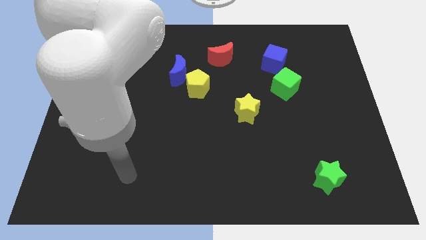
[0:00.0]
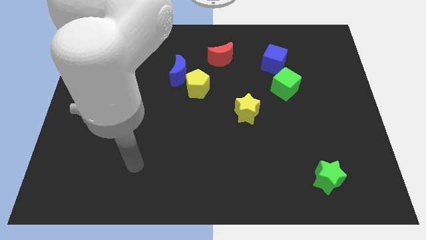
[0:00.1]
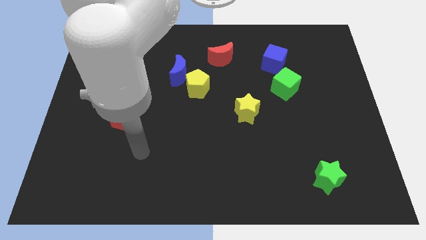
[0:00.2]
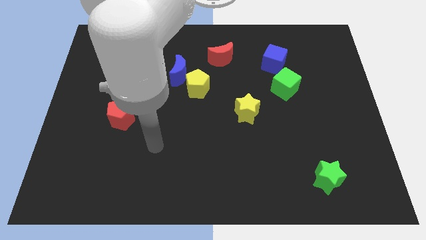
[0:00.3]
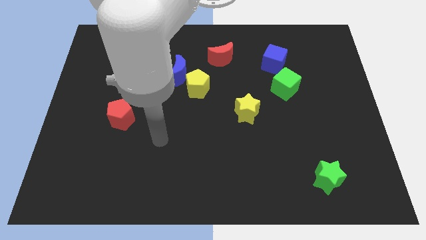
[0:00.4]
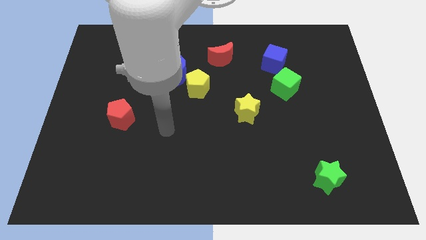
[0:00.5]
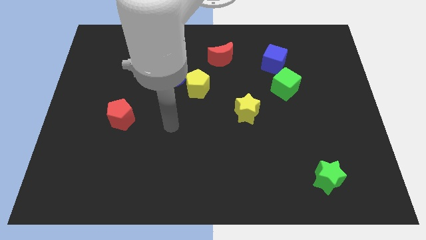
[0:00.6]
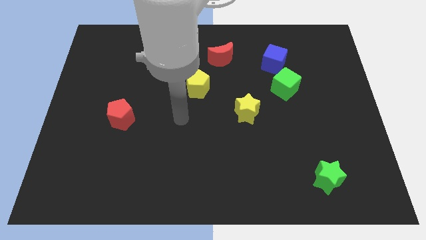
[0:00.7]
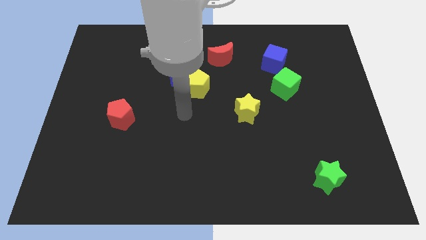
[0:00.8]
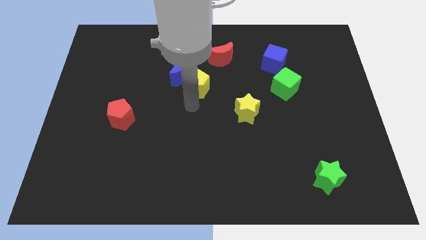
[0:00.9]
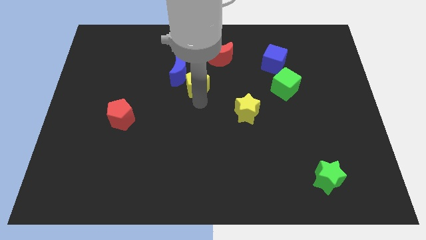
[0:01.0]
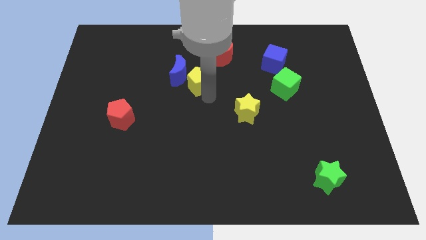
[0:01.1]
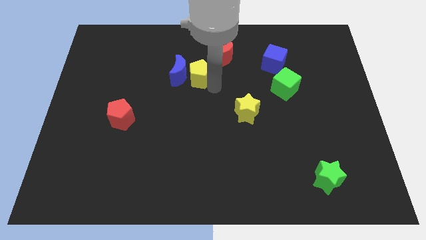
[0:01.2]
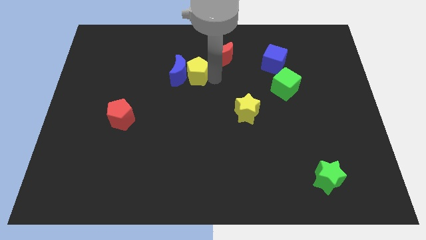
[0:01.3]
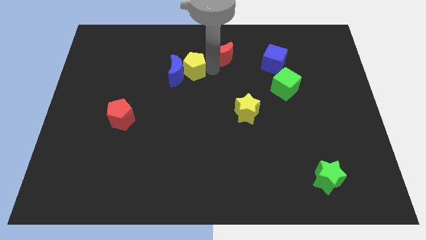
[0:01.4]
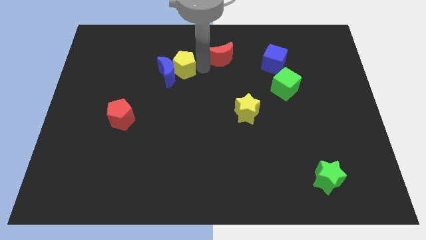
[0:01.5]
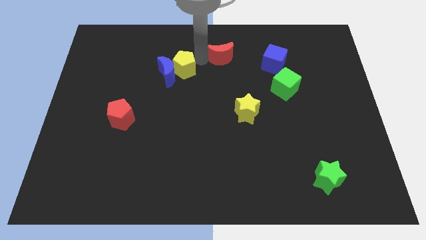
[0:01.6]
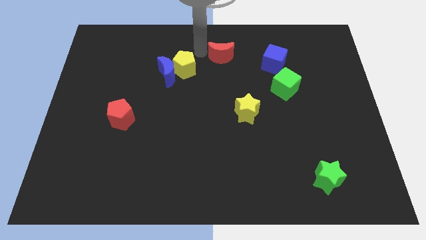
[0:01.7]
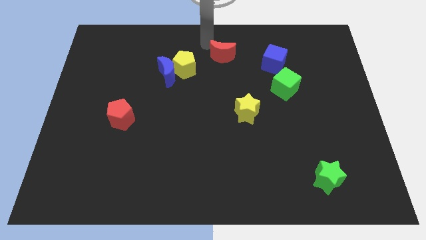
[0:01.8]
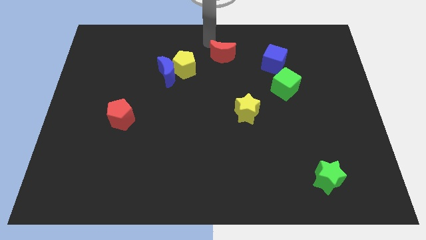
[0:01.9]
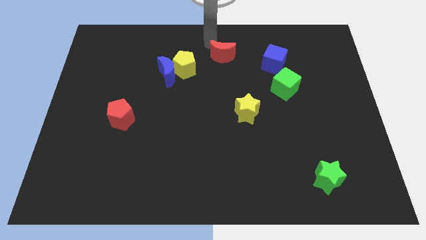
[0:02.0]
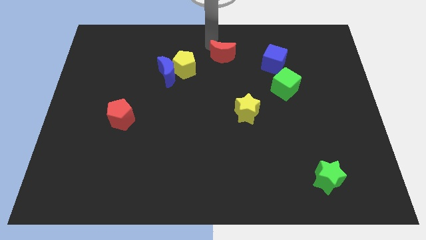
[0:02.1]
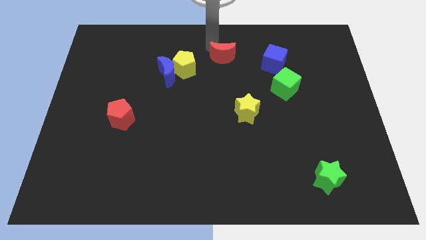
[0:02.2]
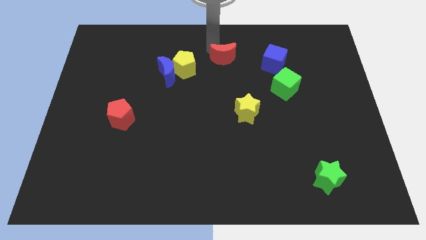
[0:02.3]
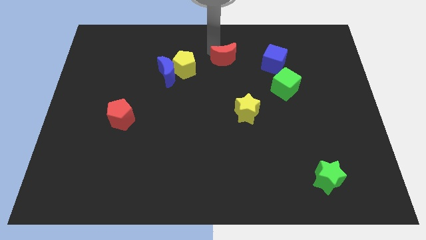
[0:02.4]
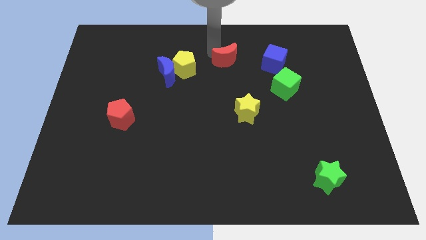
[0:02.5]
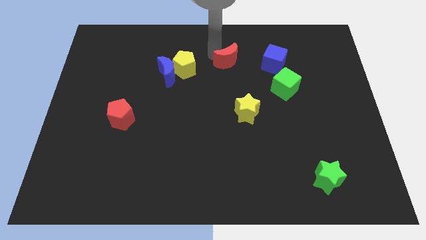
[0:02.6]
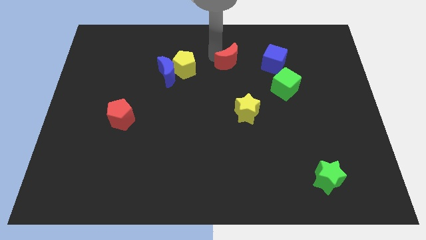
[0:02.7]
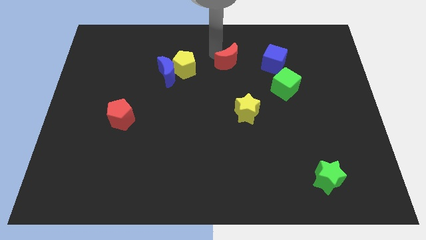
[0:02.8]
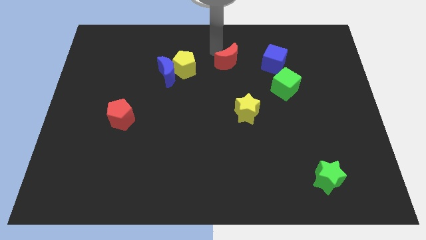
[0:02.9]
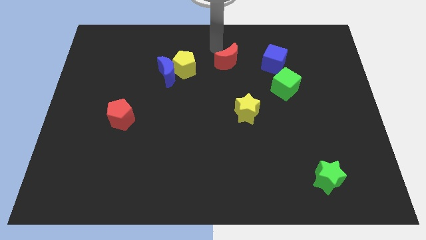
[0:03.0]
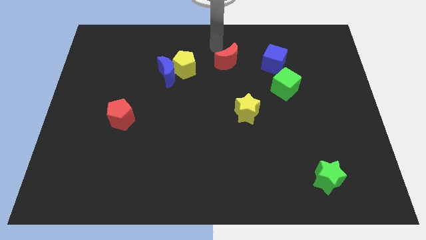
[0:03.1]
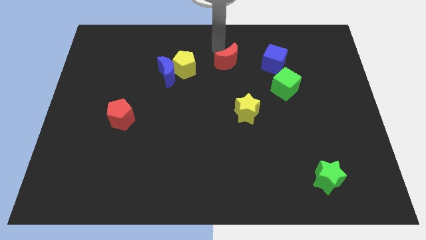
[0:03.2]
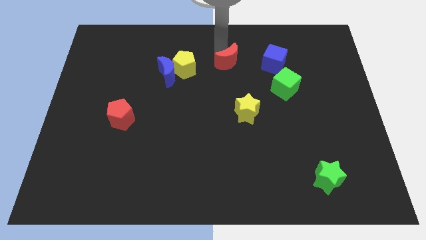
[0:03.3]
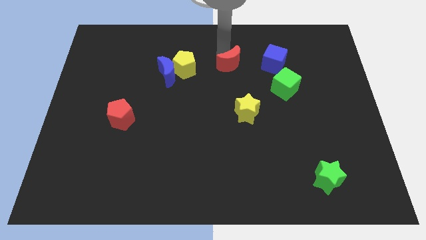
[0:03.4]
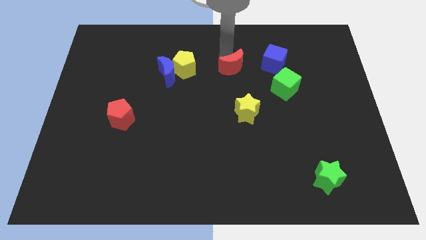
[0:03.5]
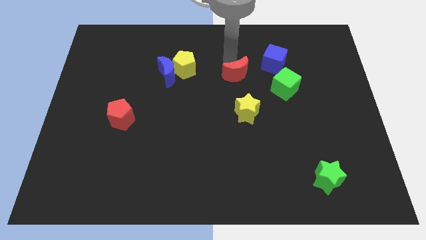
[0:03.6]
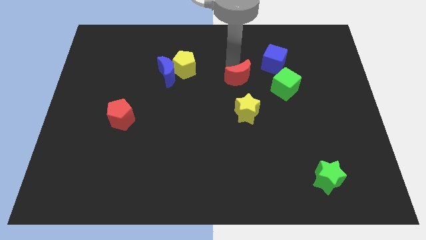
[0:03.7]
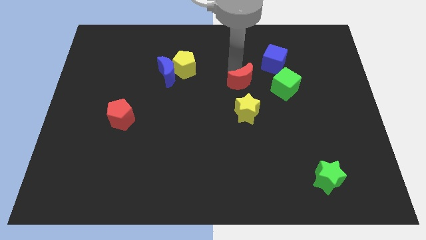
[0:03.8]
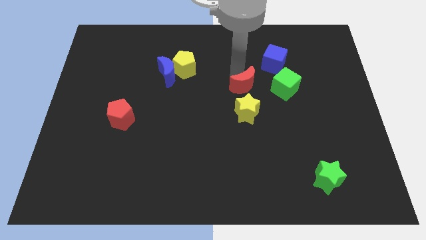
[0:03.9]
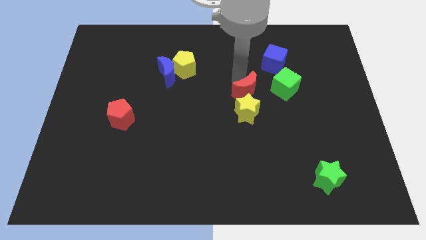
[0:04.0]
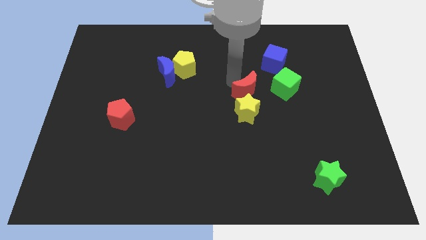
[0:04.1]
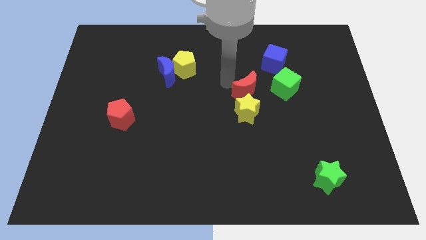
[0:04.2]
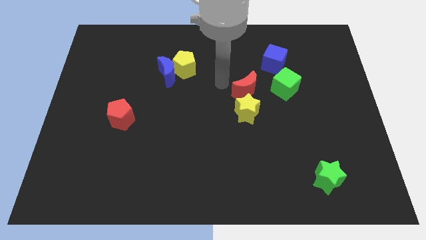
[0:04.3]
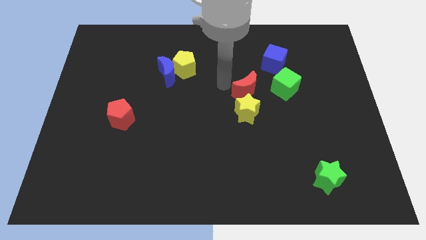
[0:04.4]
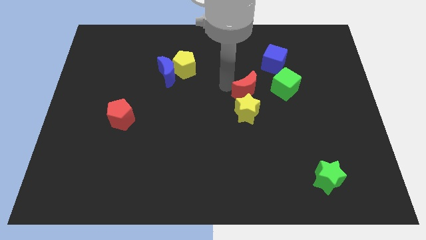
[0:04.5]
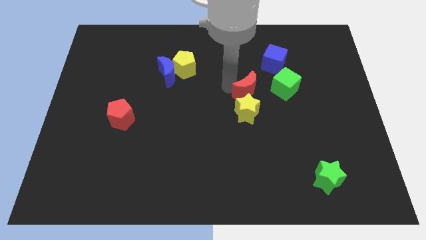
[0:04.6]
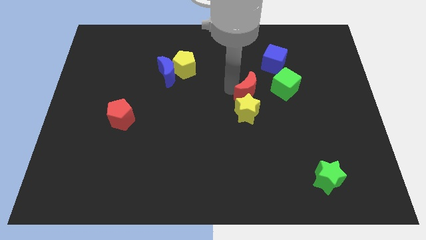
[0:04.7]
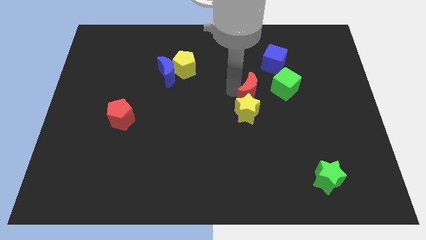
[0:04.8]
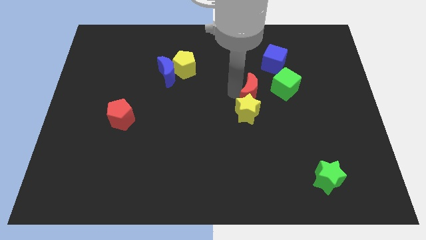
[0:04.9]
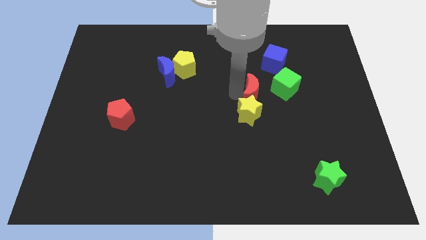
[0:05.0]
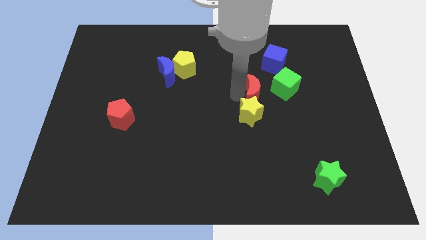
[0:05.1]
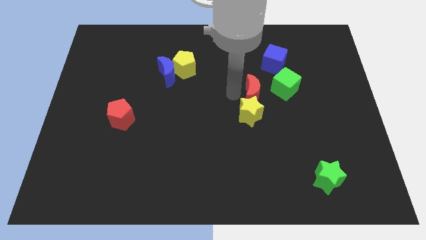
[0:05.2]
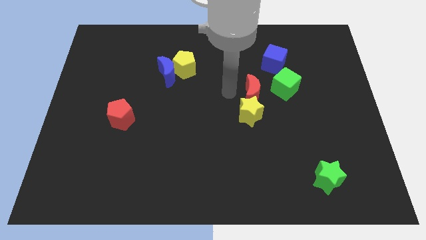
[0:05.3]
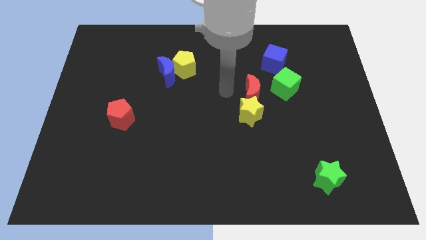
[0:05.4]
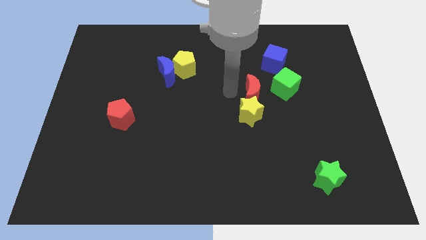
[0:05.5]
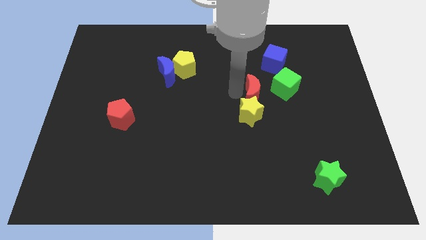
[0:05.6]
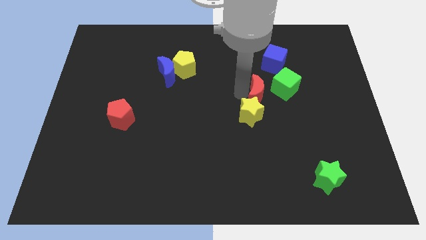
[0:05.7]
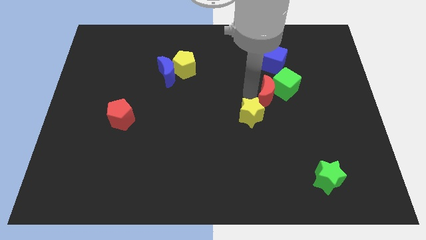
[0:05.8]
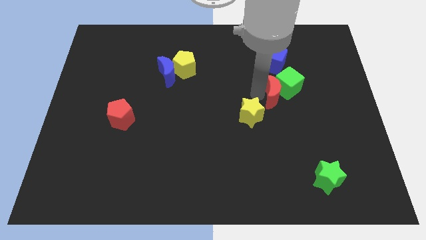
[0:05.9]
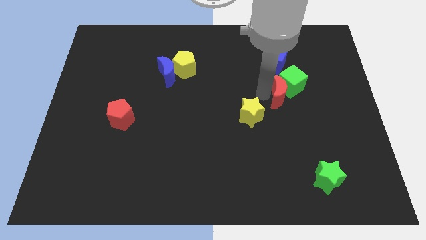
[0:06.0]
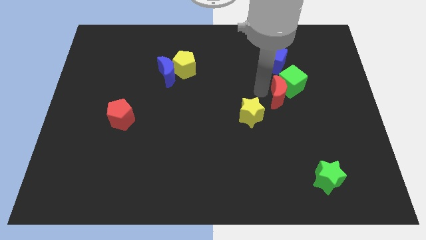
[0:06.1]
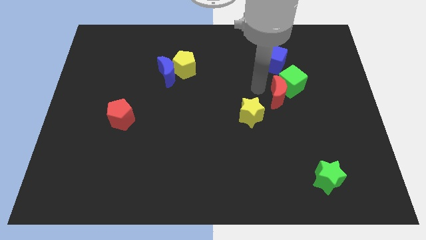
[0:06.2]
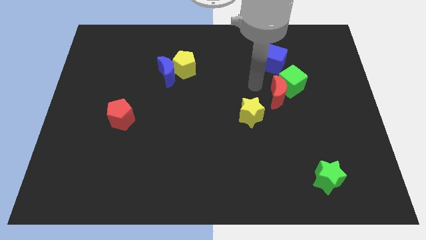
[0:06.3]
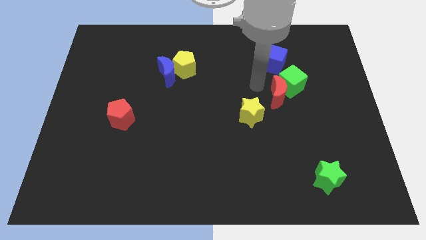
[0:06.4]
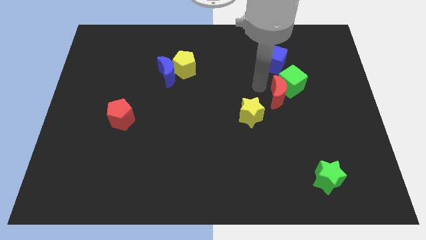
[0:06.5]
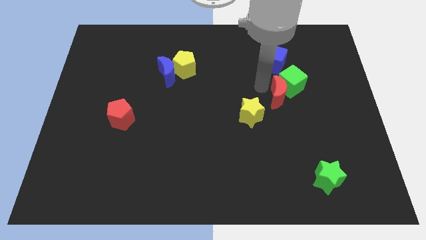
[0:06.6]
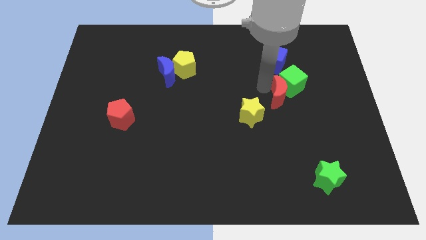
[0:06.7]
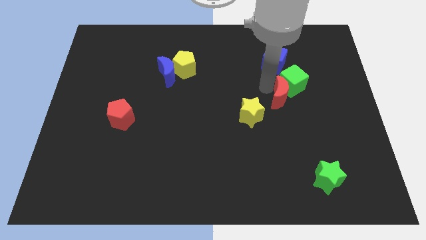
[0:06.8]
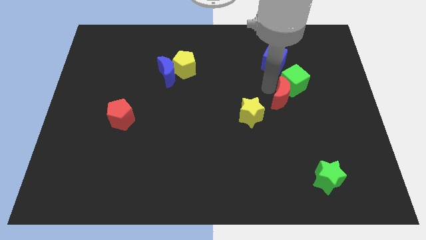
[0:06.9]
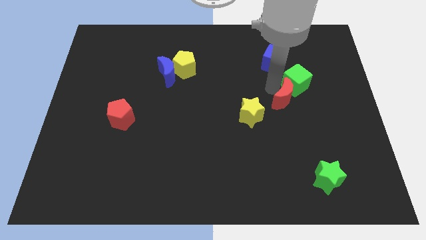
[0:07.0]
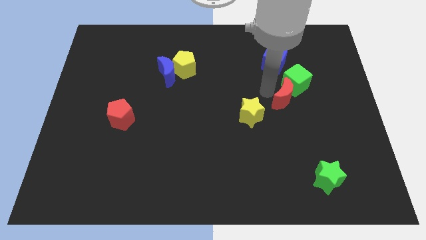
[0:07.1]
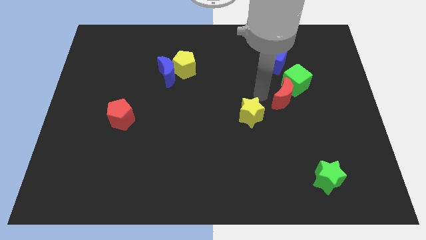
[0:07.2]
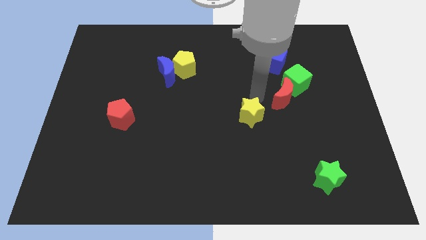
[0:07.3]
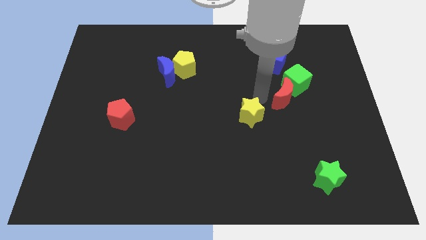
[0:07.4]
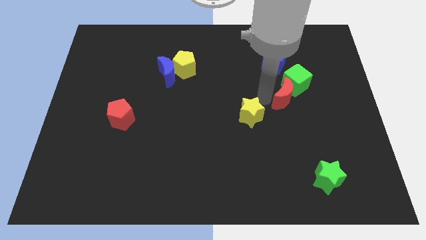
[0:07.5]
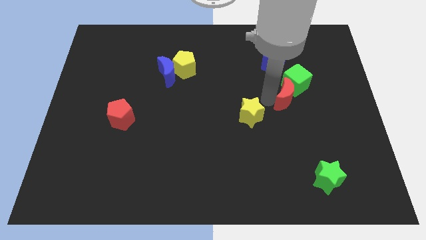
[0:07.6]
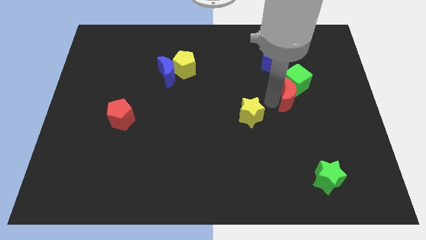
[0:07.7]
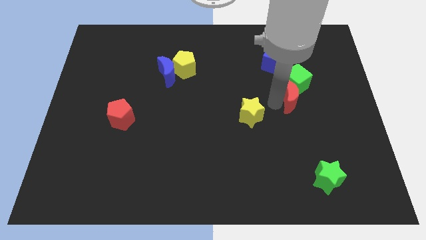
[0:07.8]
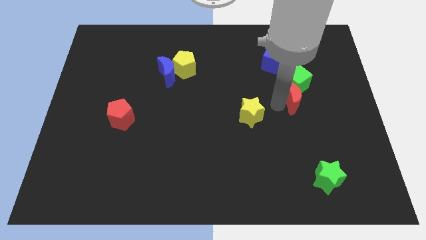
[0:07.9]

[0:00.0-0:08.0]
move the red moon to the bottom right of the green cube
